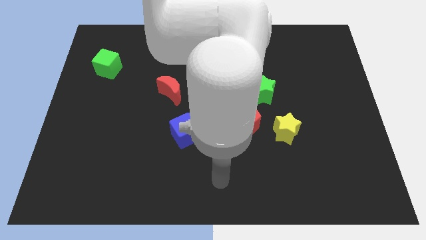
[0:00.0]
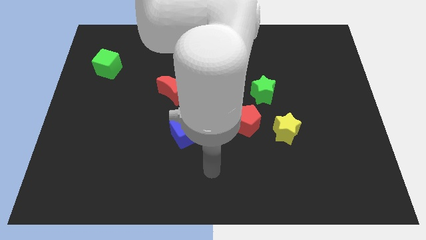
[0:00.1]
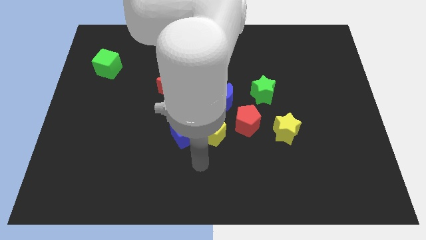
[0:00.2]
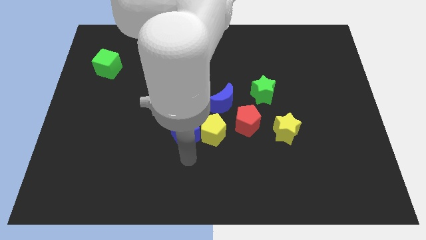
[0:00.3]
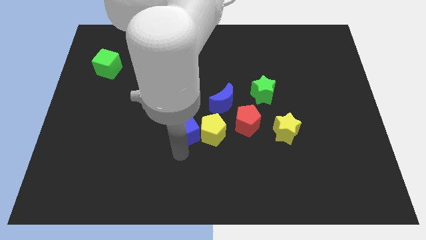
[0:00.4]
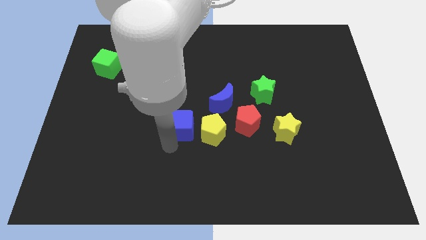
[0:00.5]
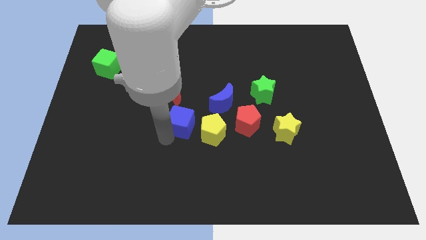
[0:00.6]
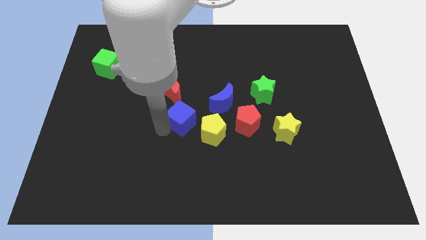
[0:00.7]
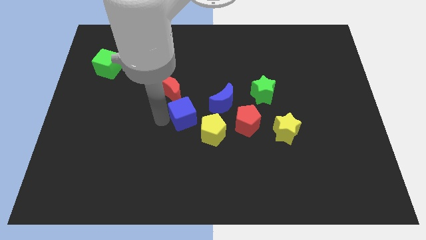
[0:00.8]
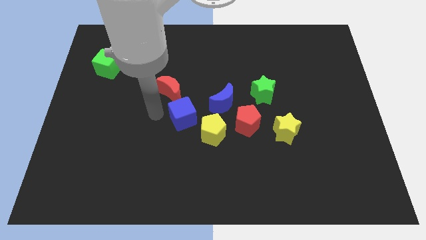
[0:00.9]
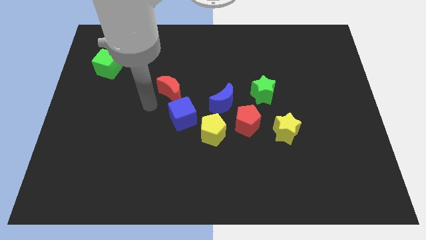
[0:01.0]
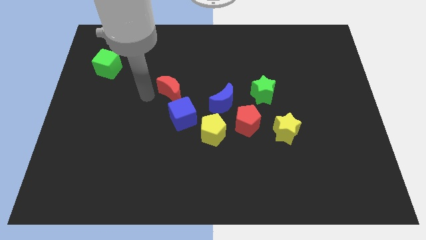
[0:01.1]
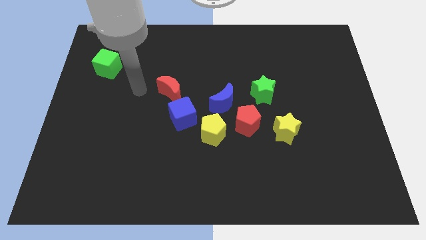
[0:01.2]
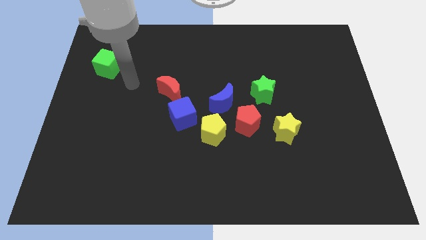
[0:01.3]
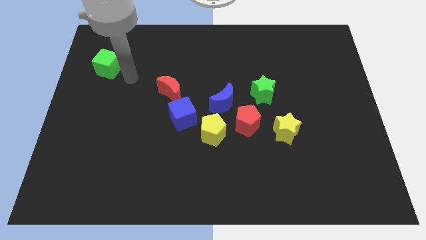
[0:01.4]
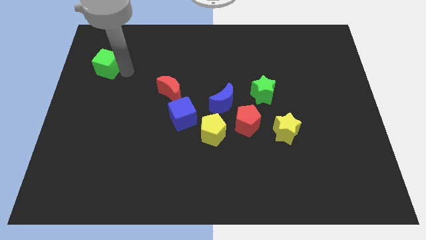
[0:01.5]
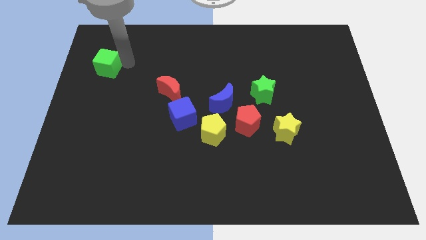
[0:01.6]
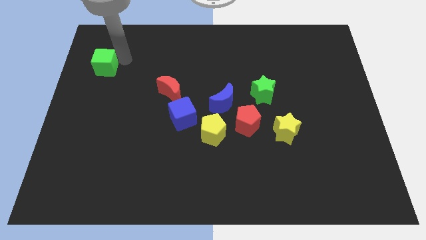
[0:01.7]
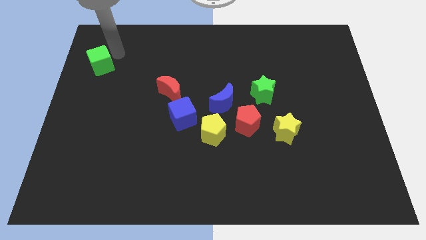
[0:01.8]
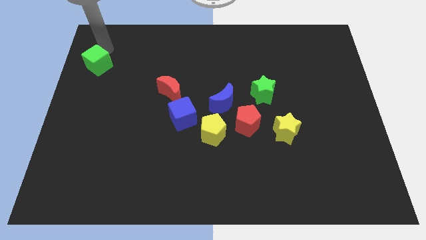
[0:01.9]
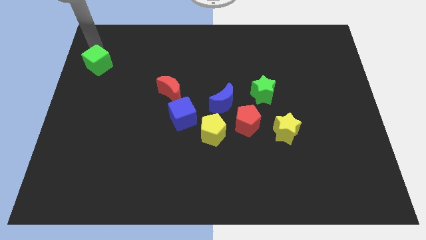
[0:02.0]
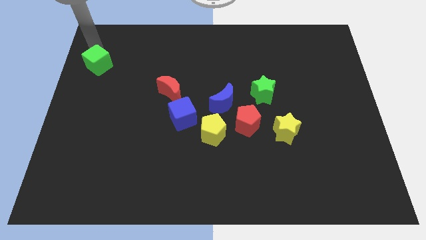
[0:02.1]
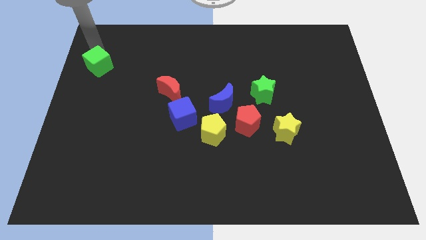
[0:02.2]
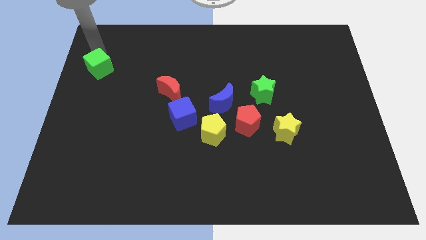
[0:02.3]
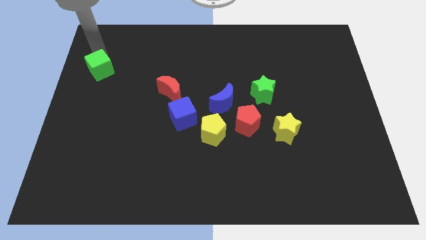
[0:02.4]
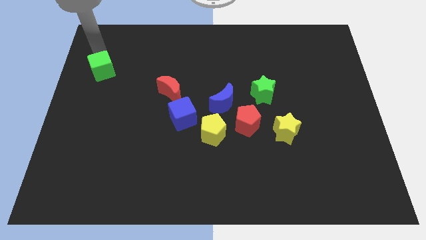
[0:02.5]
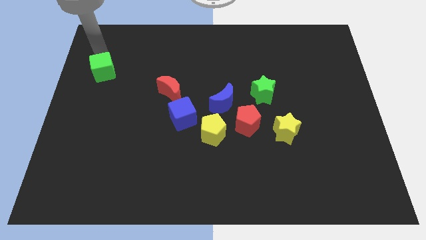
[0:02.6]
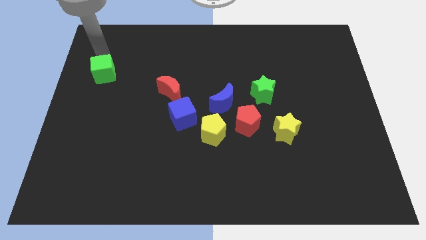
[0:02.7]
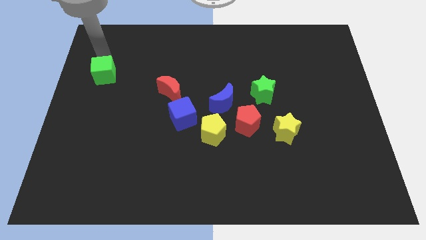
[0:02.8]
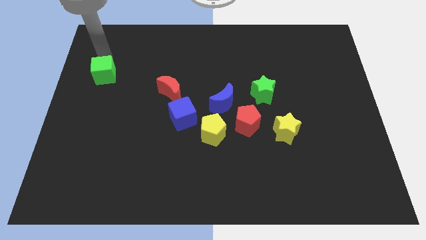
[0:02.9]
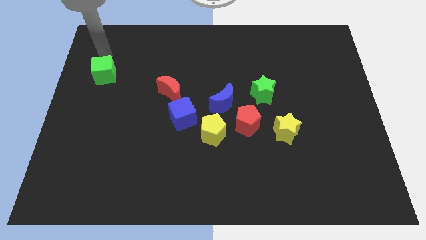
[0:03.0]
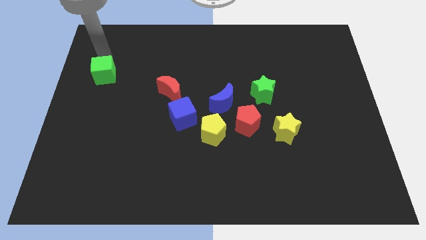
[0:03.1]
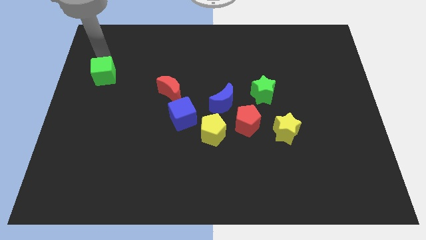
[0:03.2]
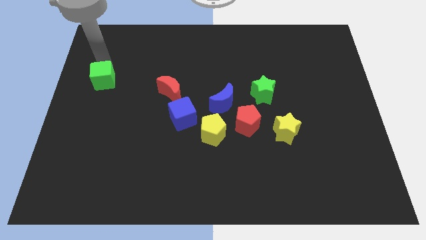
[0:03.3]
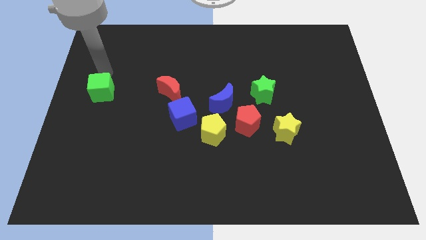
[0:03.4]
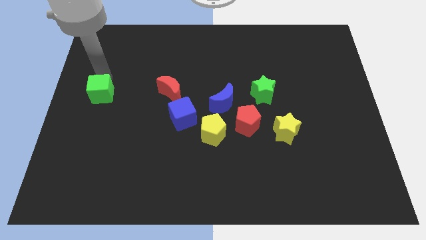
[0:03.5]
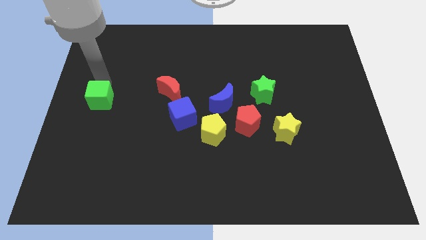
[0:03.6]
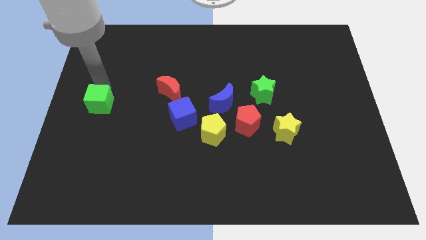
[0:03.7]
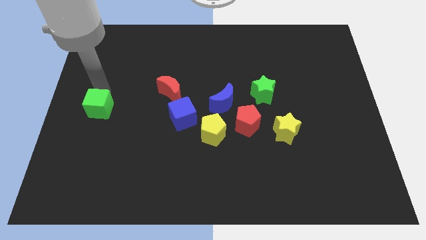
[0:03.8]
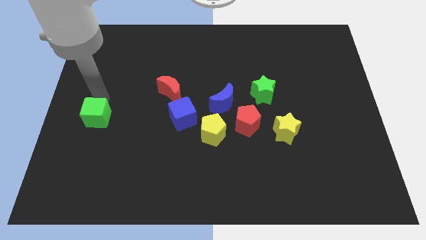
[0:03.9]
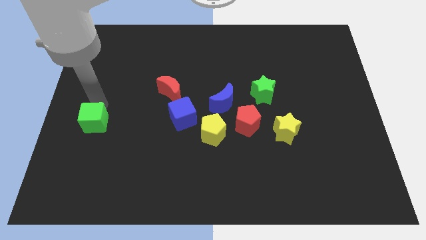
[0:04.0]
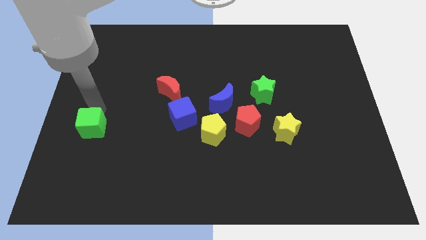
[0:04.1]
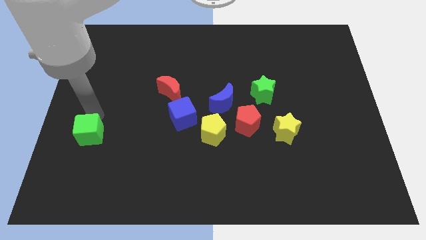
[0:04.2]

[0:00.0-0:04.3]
slide the green cube down

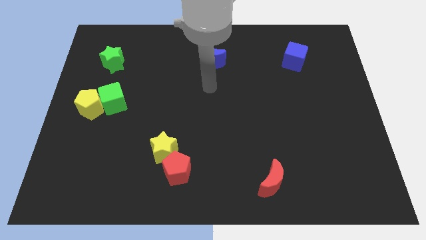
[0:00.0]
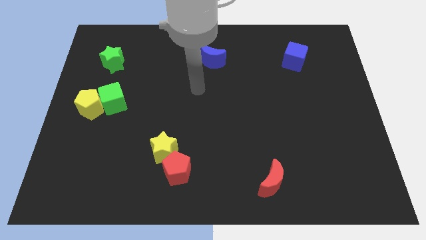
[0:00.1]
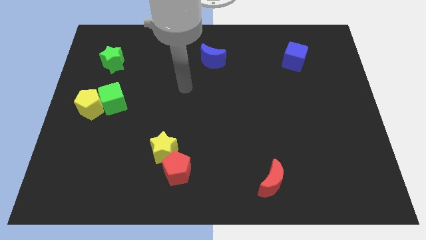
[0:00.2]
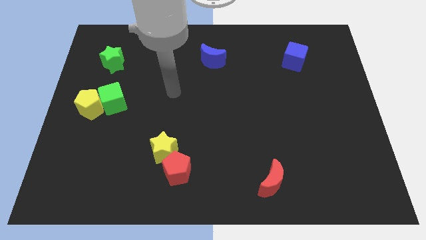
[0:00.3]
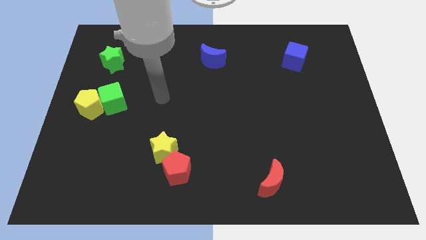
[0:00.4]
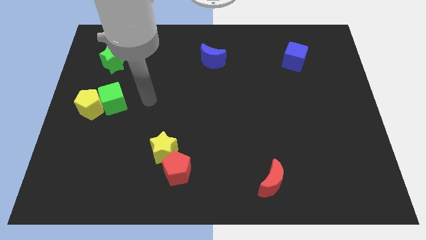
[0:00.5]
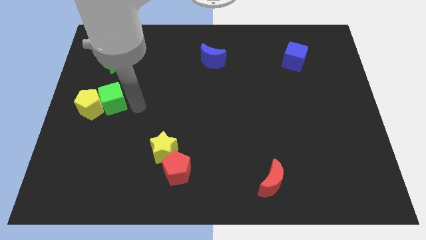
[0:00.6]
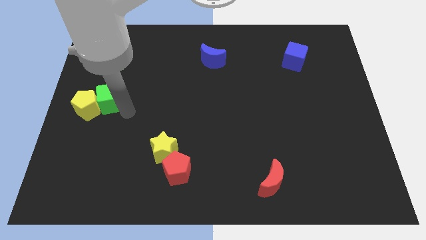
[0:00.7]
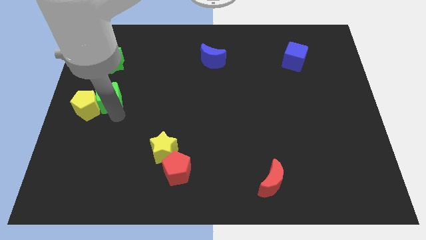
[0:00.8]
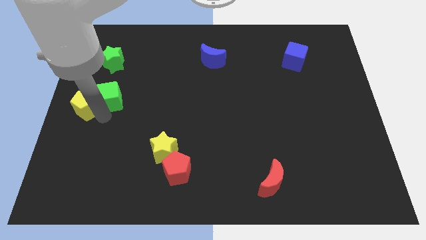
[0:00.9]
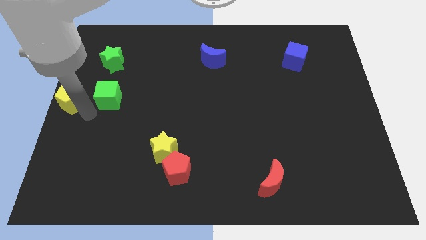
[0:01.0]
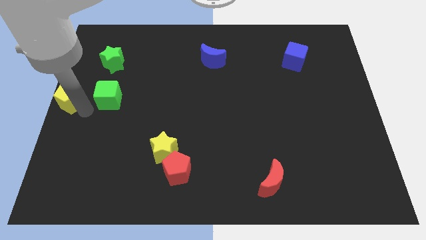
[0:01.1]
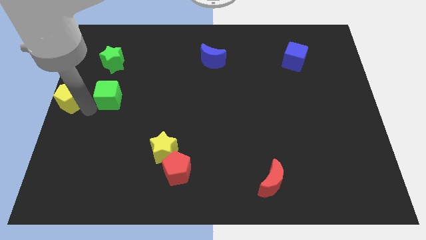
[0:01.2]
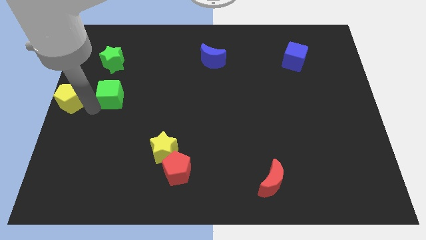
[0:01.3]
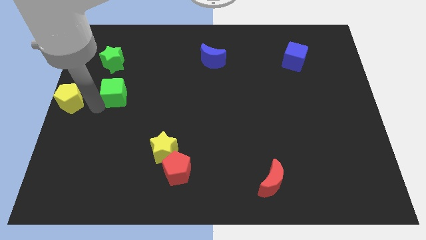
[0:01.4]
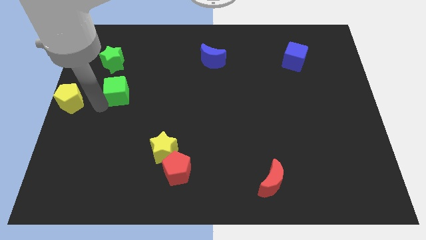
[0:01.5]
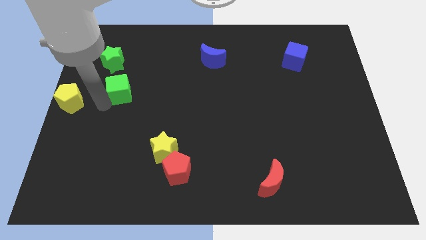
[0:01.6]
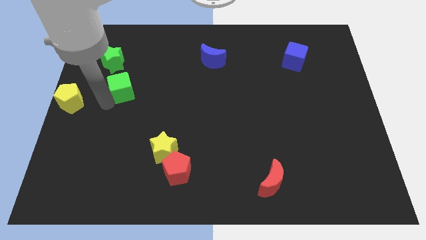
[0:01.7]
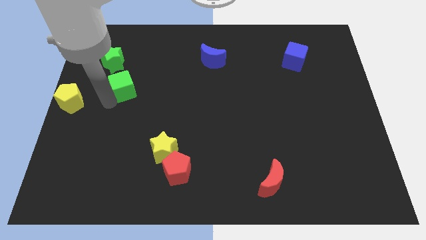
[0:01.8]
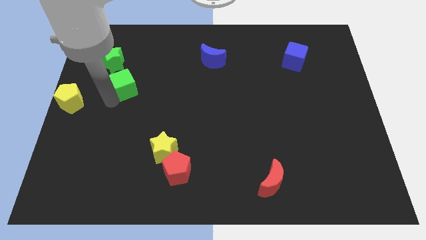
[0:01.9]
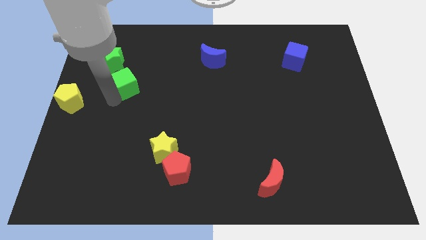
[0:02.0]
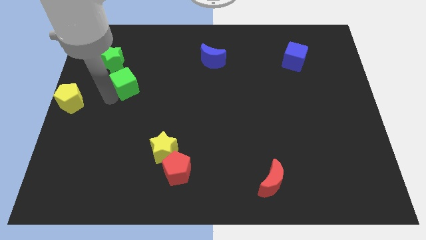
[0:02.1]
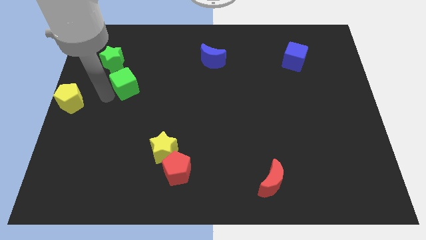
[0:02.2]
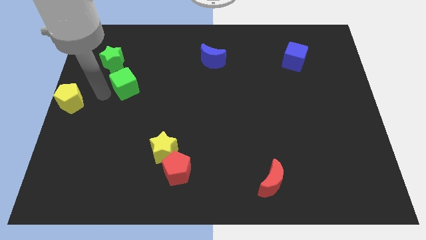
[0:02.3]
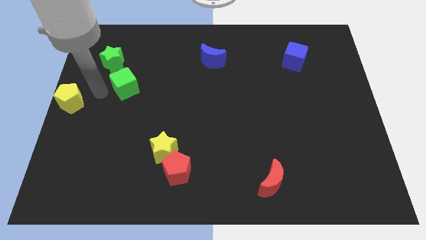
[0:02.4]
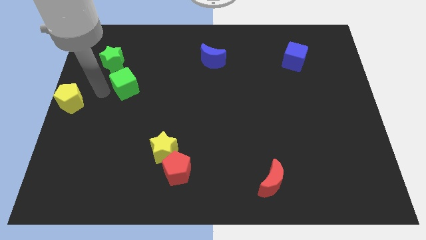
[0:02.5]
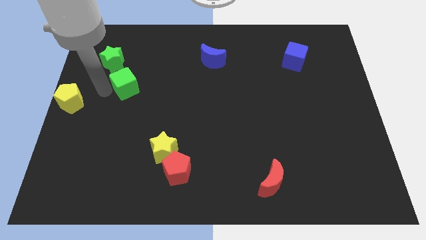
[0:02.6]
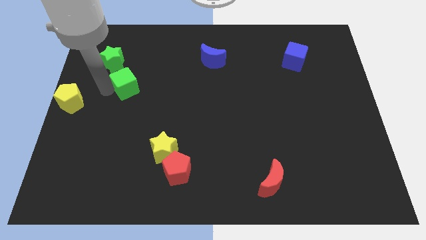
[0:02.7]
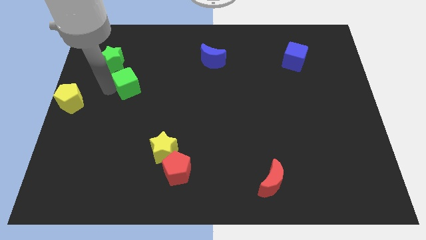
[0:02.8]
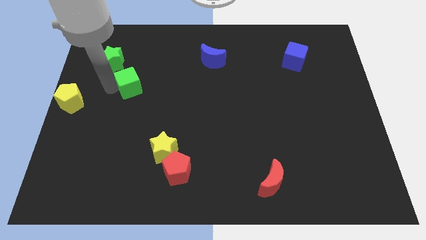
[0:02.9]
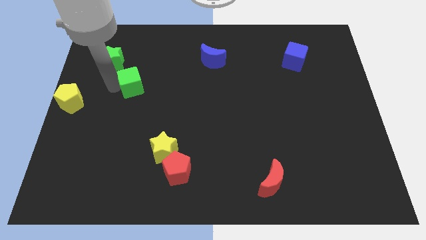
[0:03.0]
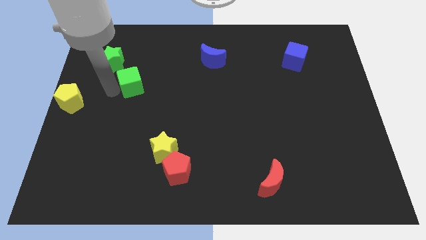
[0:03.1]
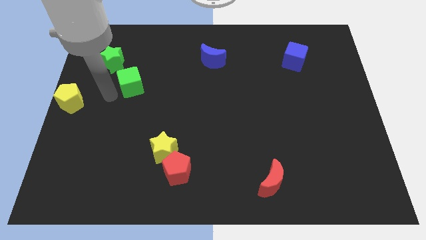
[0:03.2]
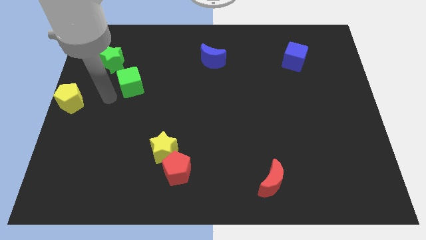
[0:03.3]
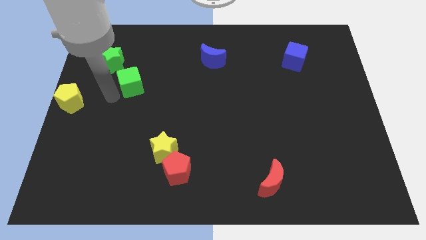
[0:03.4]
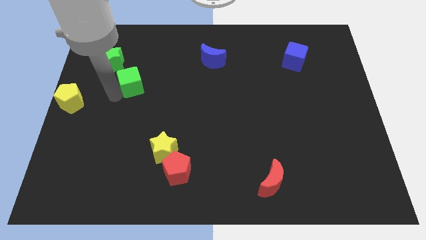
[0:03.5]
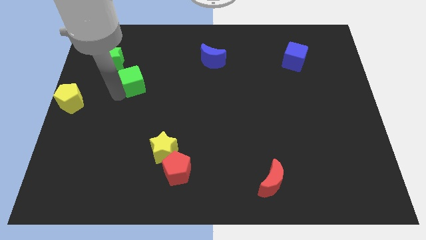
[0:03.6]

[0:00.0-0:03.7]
slightly move the green cube diagonally up and to the right
